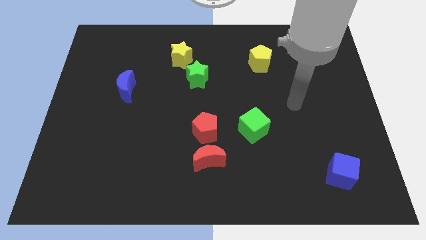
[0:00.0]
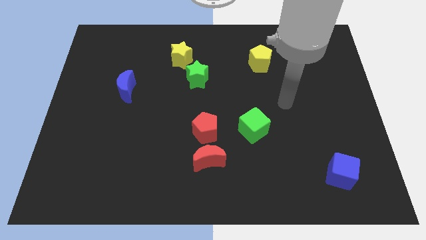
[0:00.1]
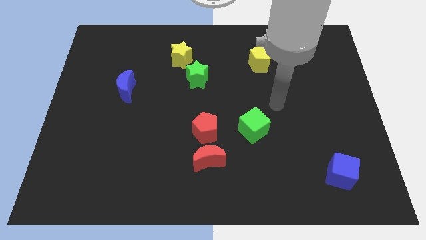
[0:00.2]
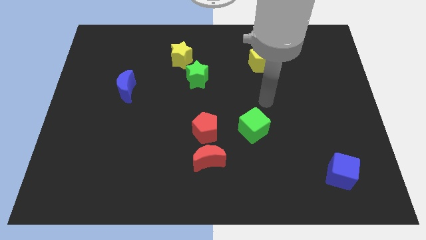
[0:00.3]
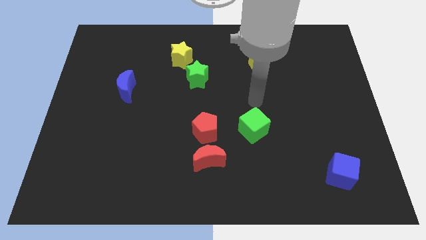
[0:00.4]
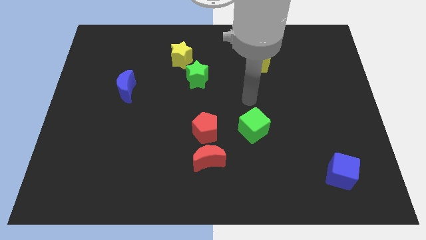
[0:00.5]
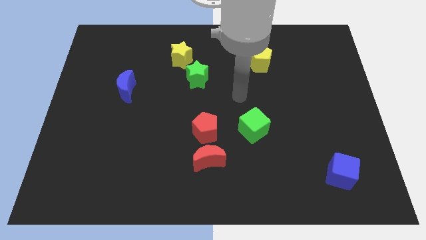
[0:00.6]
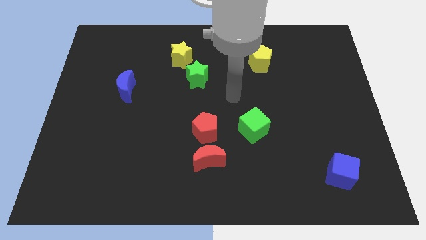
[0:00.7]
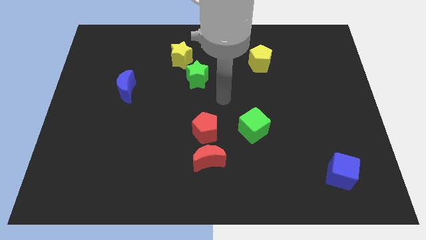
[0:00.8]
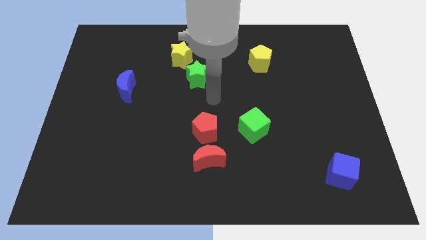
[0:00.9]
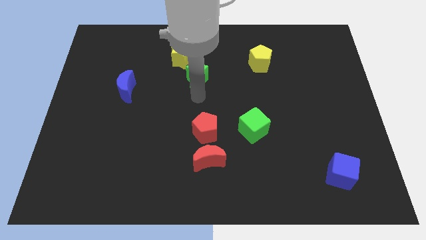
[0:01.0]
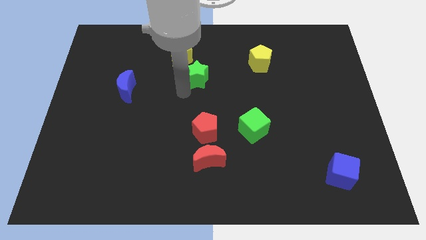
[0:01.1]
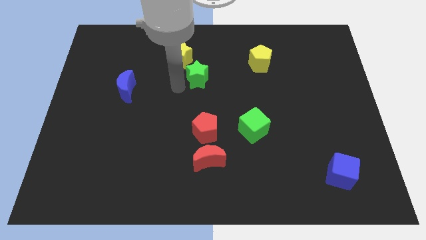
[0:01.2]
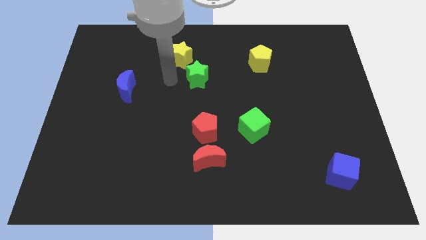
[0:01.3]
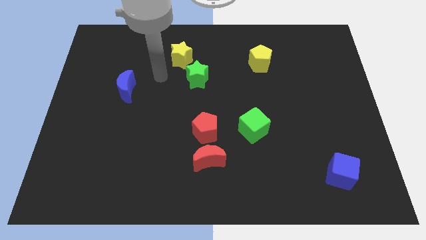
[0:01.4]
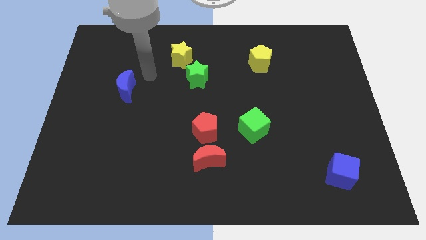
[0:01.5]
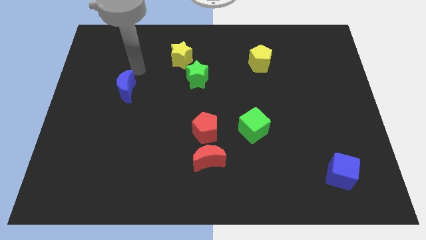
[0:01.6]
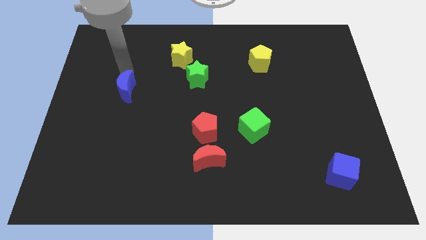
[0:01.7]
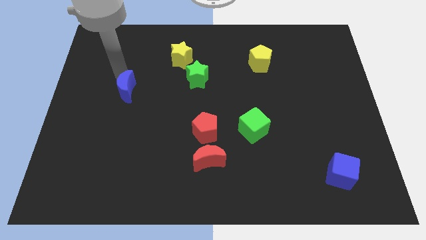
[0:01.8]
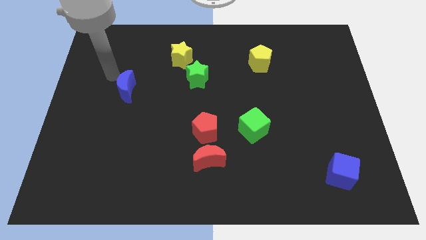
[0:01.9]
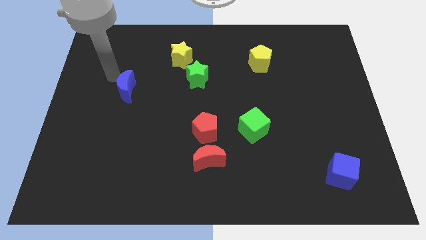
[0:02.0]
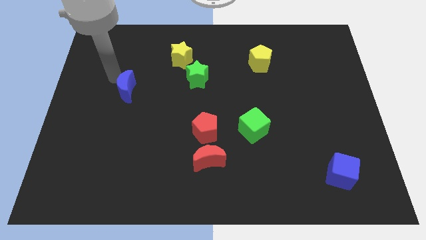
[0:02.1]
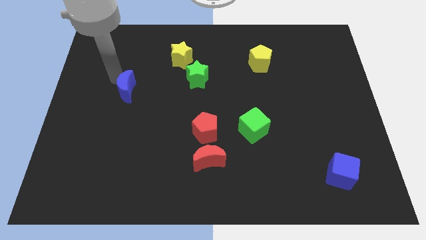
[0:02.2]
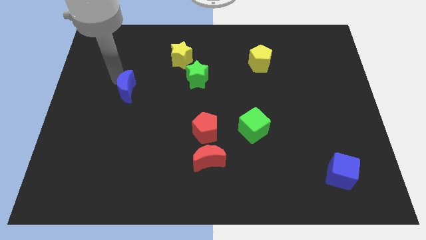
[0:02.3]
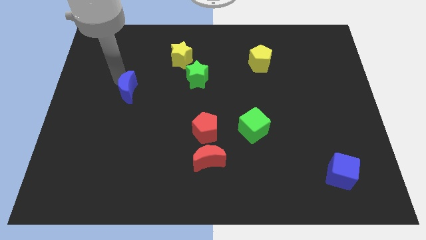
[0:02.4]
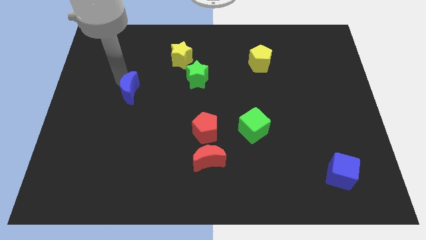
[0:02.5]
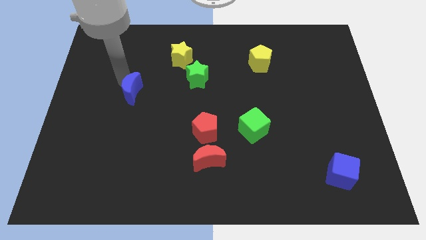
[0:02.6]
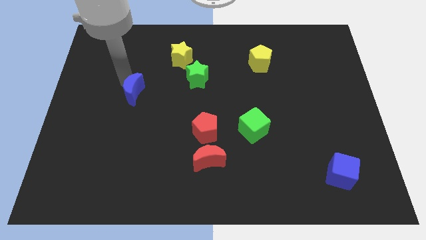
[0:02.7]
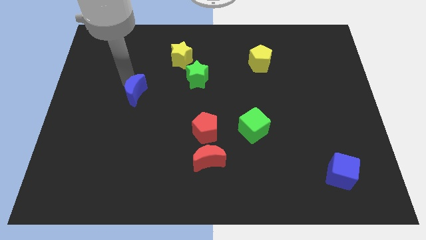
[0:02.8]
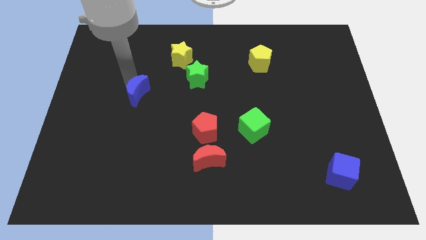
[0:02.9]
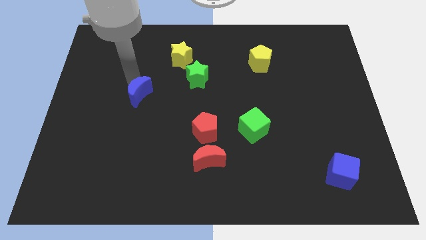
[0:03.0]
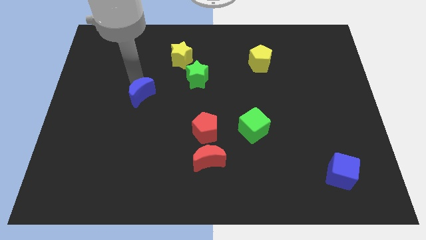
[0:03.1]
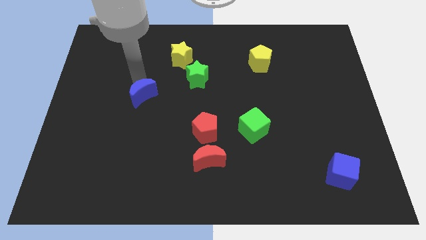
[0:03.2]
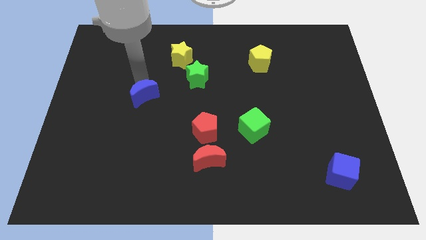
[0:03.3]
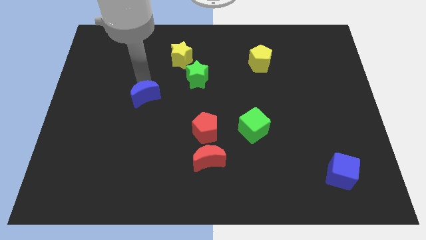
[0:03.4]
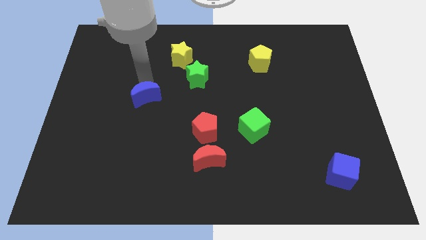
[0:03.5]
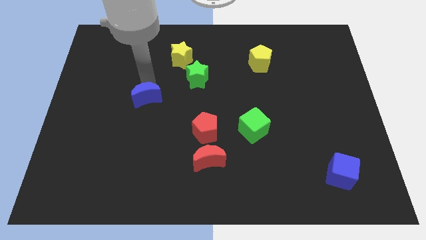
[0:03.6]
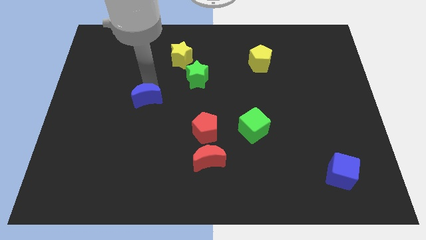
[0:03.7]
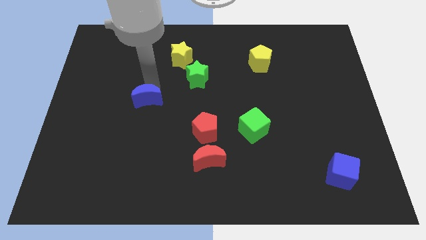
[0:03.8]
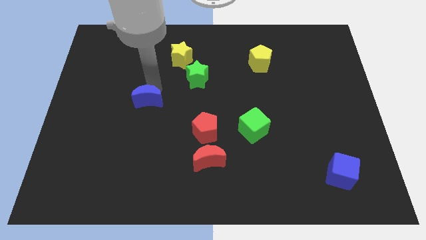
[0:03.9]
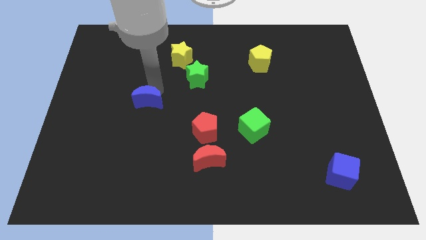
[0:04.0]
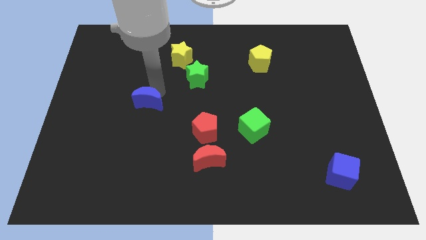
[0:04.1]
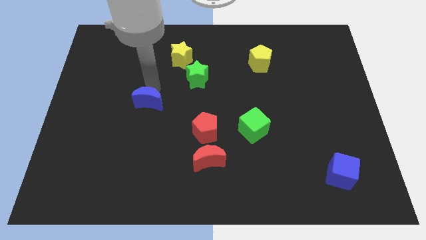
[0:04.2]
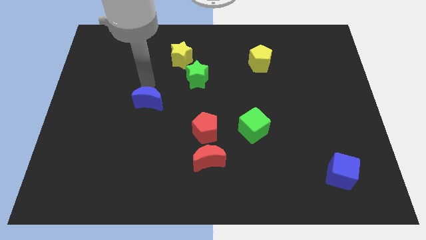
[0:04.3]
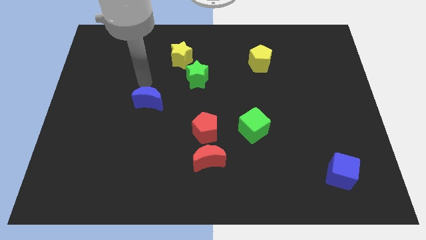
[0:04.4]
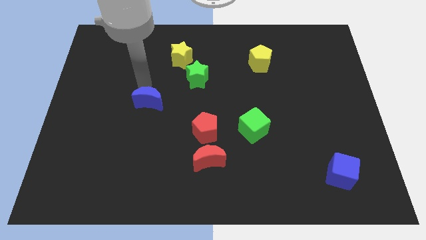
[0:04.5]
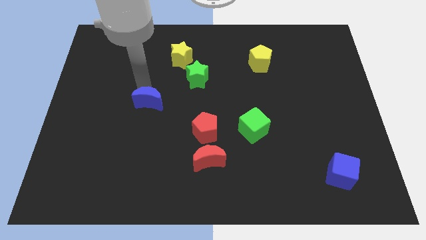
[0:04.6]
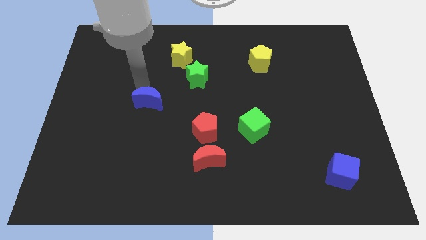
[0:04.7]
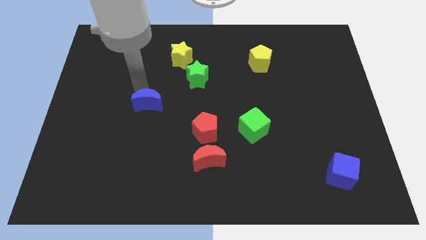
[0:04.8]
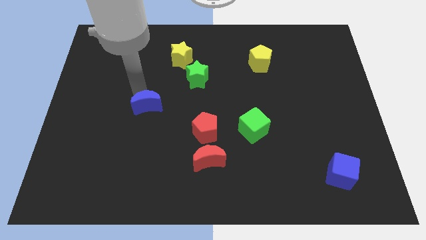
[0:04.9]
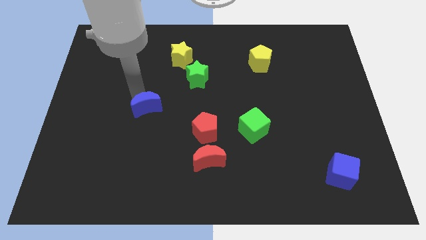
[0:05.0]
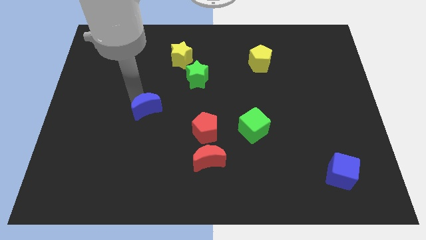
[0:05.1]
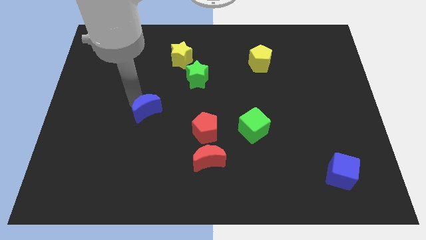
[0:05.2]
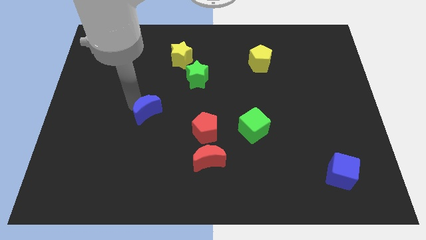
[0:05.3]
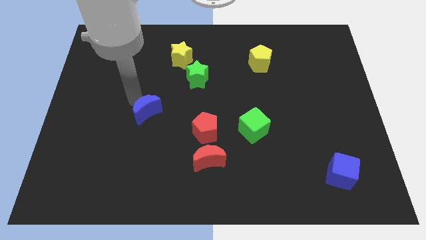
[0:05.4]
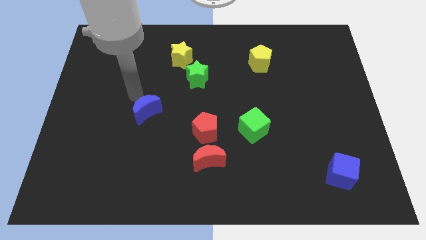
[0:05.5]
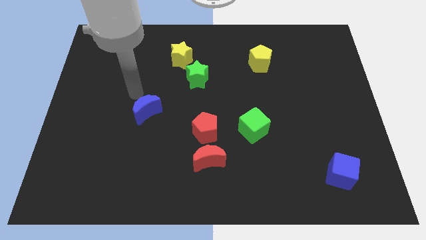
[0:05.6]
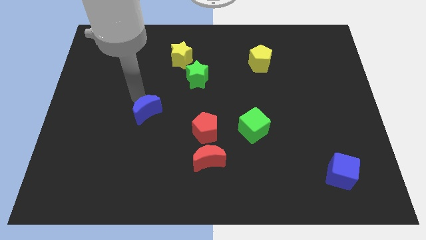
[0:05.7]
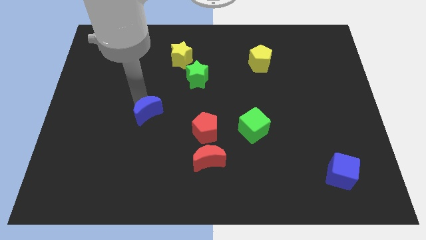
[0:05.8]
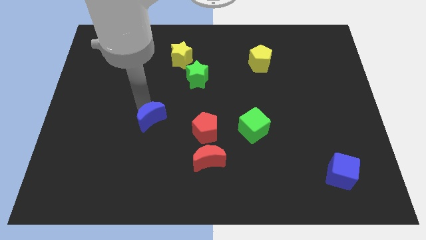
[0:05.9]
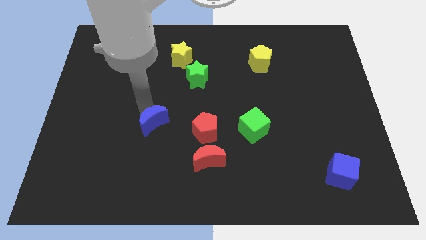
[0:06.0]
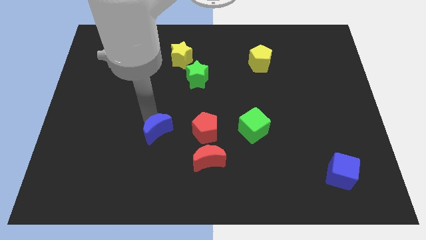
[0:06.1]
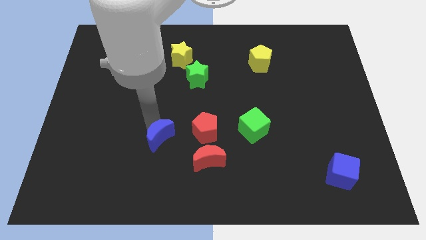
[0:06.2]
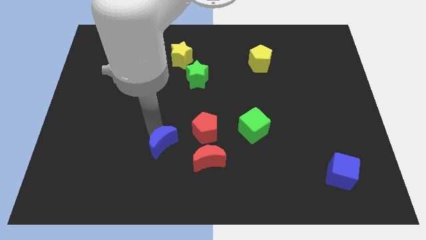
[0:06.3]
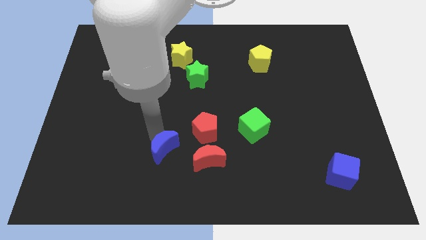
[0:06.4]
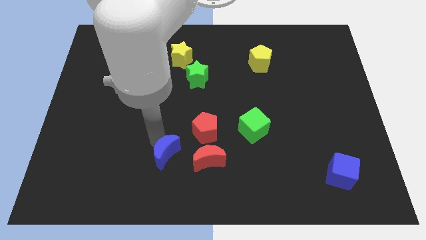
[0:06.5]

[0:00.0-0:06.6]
push the blue moon diagonally downwards and to the right

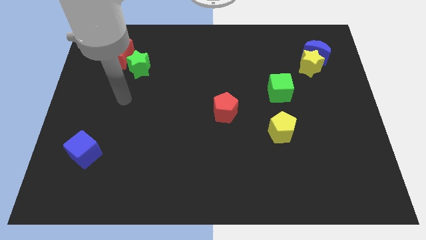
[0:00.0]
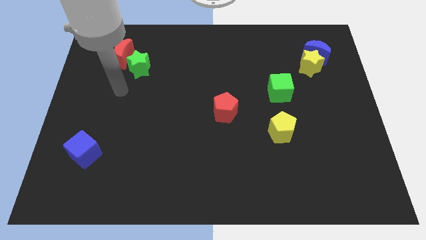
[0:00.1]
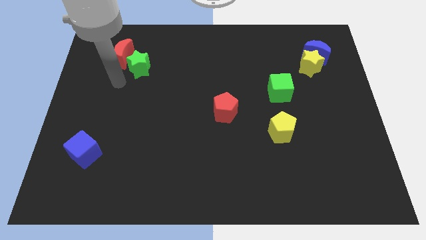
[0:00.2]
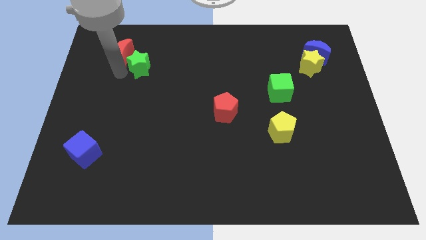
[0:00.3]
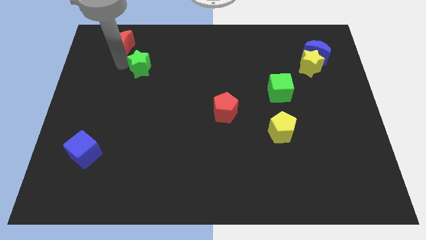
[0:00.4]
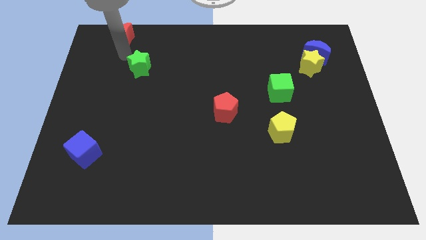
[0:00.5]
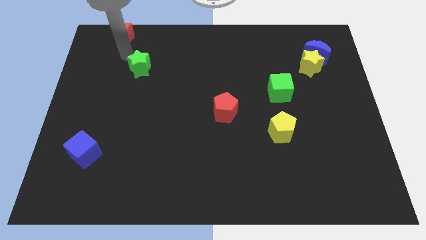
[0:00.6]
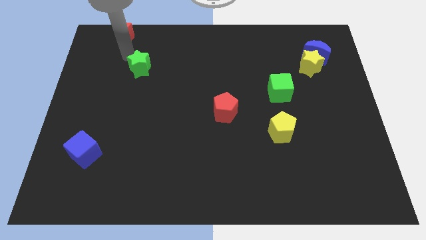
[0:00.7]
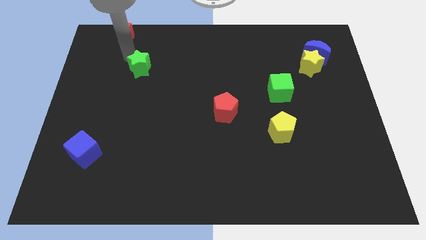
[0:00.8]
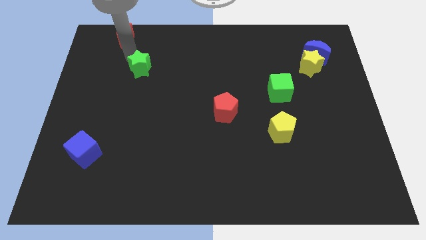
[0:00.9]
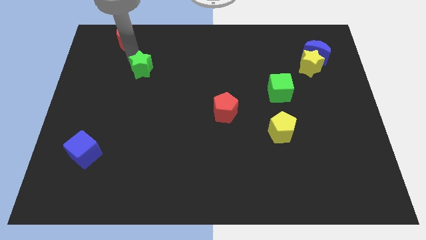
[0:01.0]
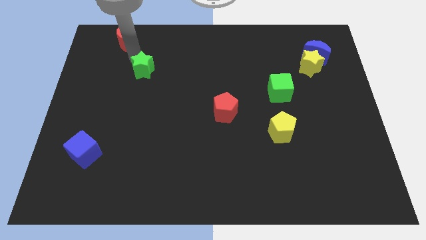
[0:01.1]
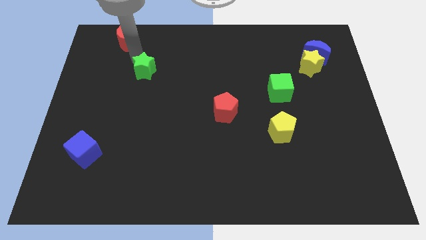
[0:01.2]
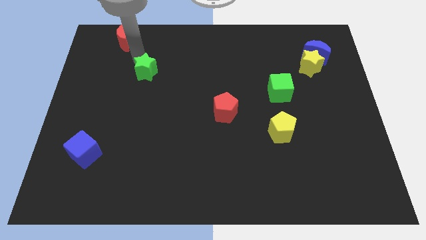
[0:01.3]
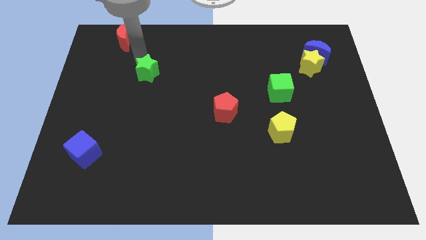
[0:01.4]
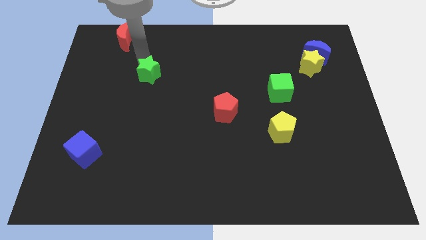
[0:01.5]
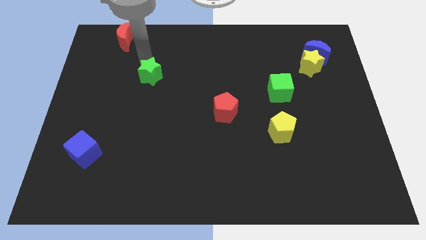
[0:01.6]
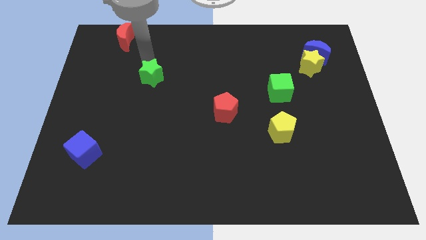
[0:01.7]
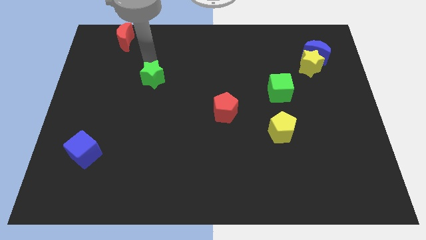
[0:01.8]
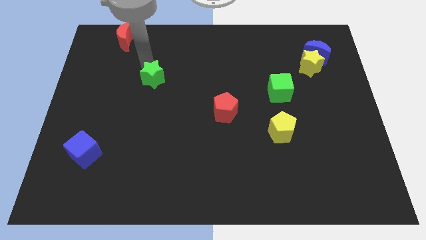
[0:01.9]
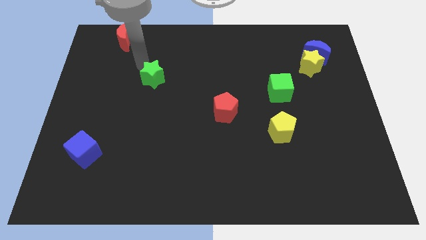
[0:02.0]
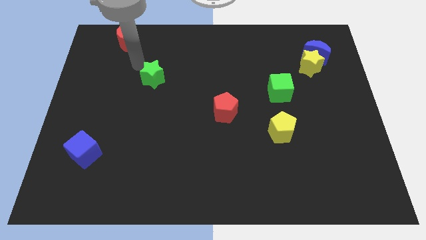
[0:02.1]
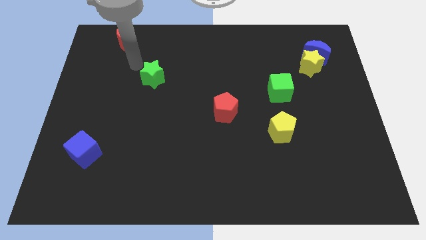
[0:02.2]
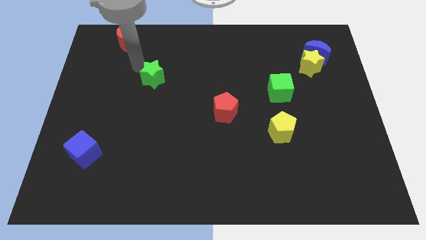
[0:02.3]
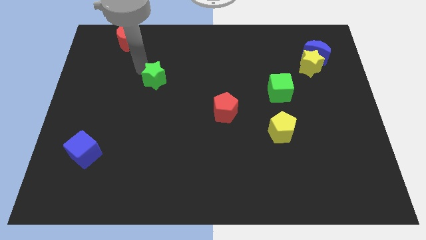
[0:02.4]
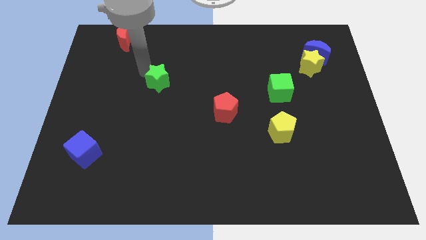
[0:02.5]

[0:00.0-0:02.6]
slightly slide the green star down and then to the right
